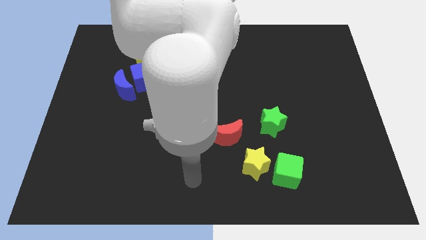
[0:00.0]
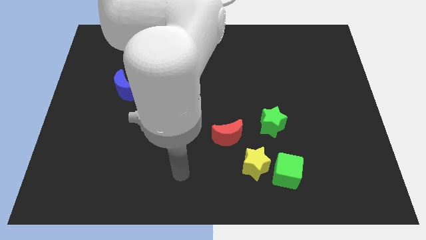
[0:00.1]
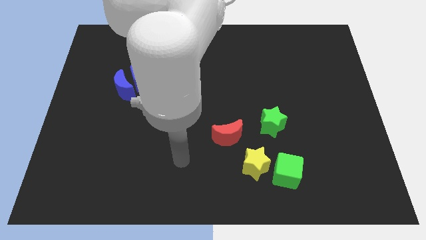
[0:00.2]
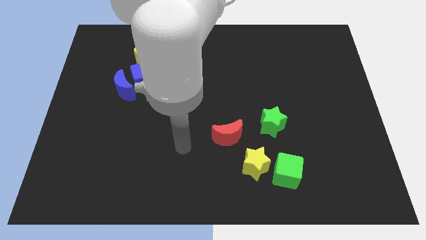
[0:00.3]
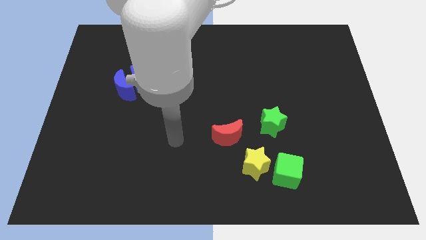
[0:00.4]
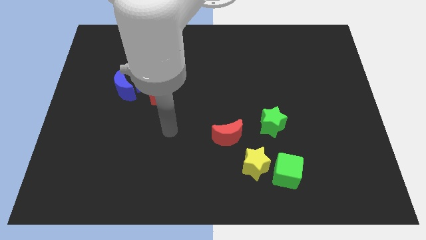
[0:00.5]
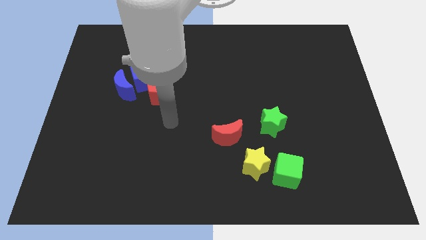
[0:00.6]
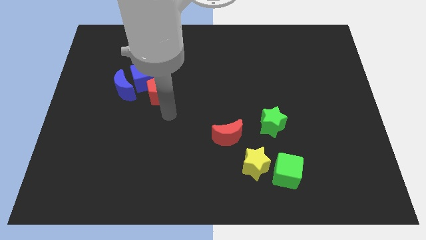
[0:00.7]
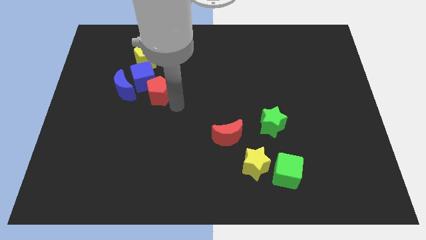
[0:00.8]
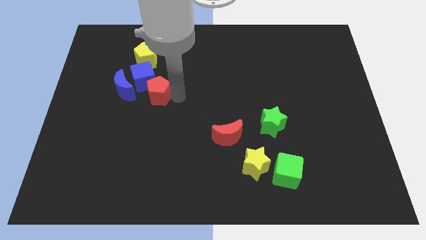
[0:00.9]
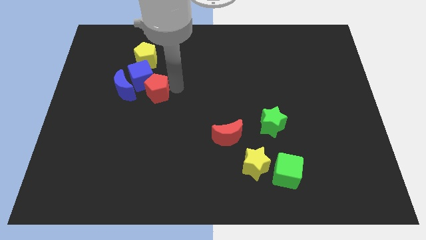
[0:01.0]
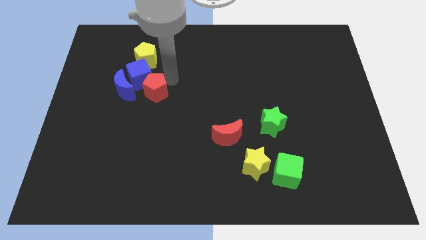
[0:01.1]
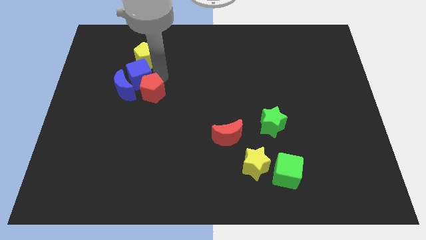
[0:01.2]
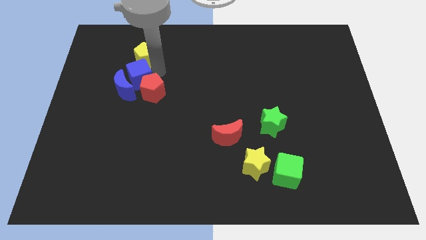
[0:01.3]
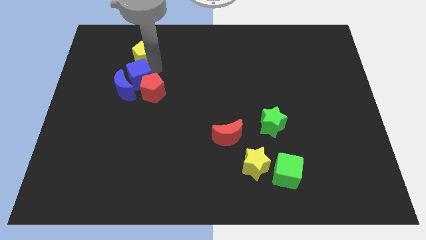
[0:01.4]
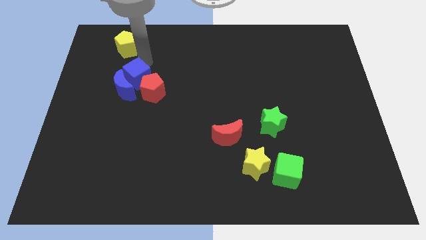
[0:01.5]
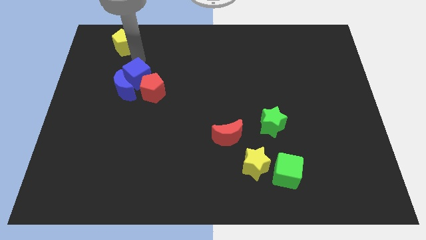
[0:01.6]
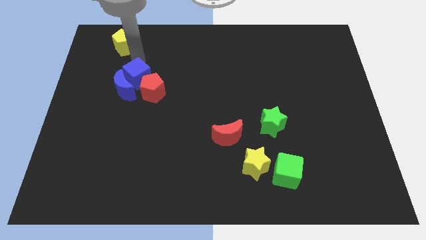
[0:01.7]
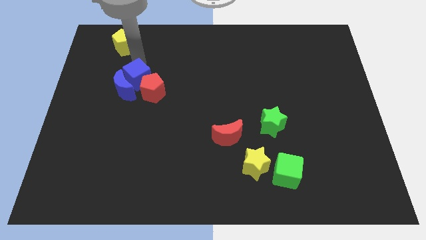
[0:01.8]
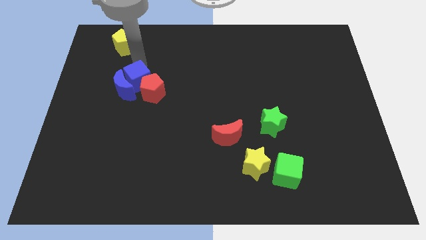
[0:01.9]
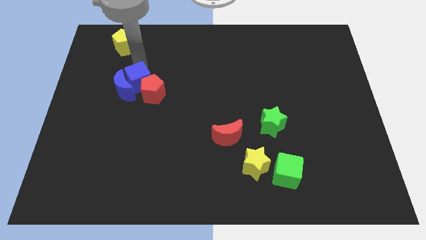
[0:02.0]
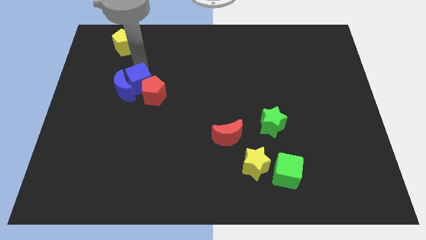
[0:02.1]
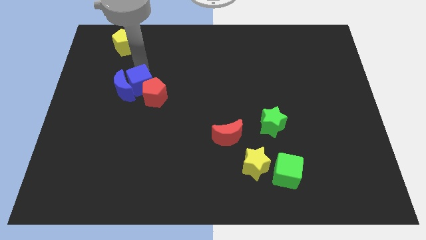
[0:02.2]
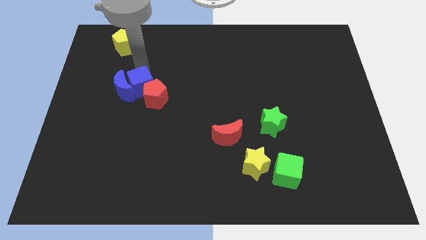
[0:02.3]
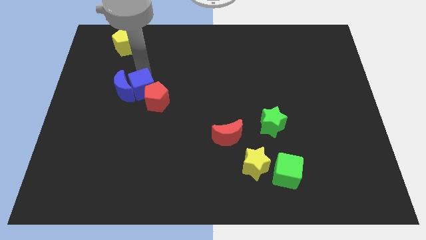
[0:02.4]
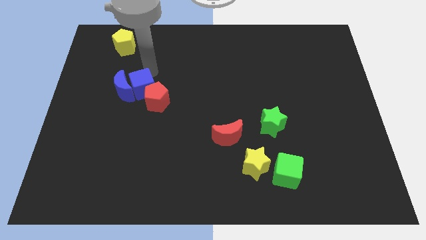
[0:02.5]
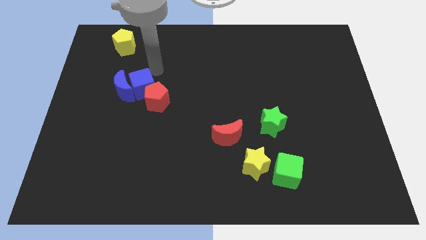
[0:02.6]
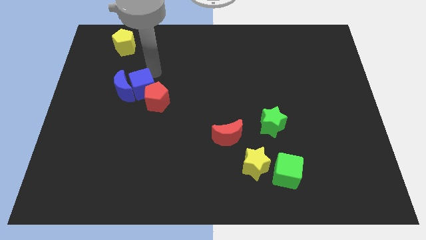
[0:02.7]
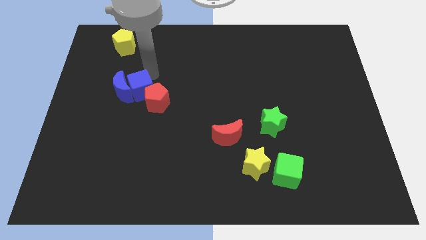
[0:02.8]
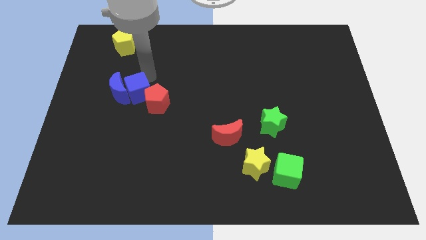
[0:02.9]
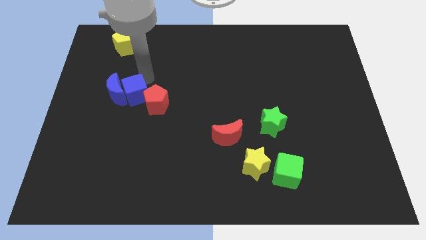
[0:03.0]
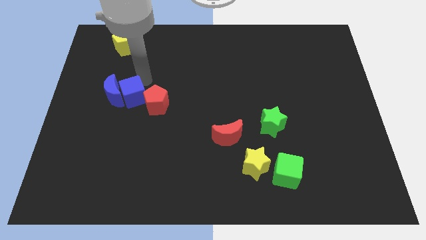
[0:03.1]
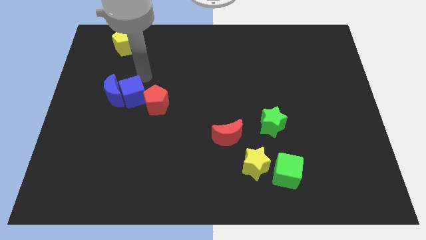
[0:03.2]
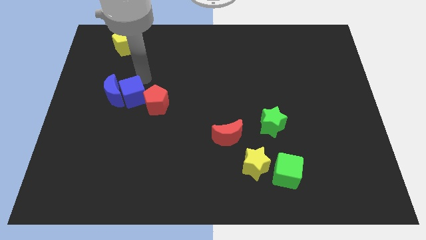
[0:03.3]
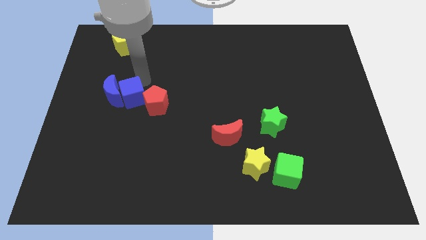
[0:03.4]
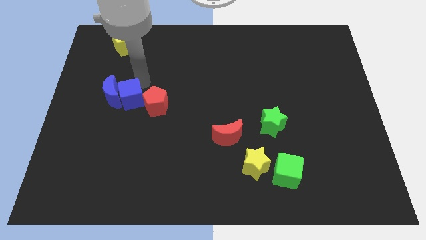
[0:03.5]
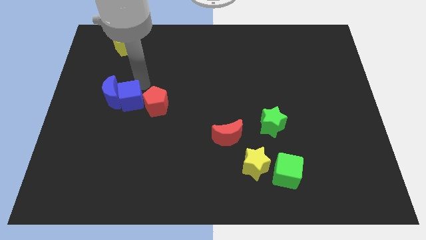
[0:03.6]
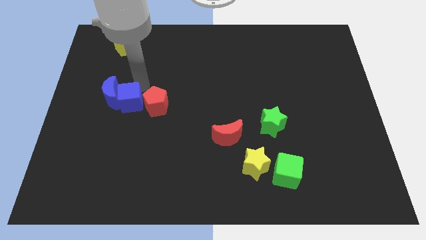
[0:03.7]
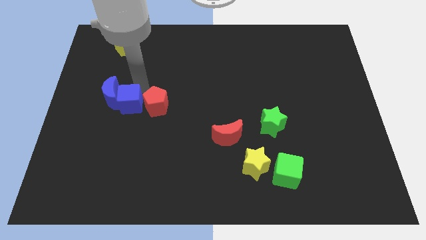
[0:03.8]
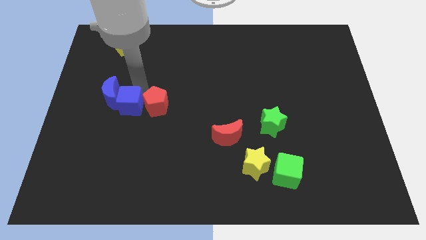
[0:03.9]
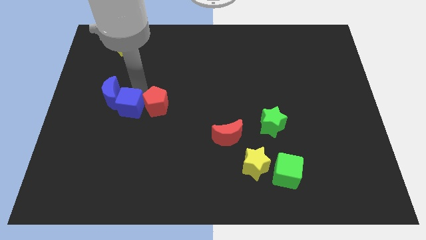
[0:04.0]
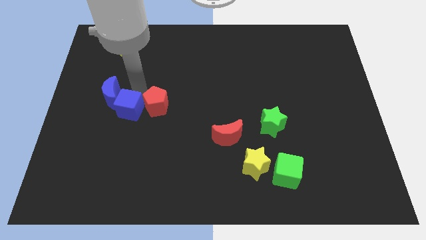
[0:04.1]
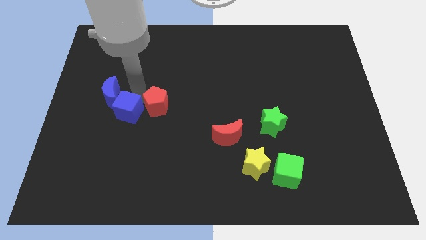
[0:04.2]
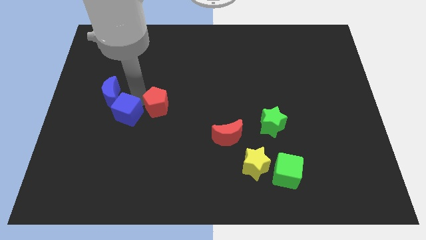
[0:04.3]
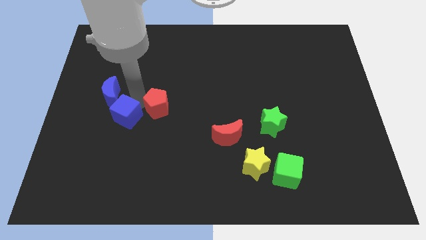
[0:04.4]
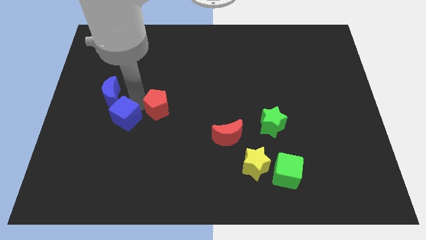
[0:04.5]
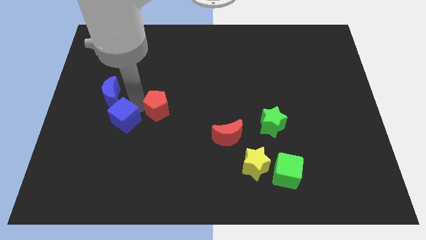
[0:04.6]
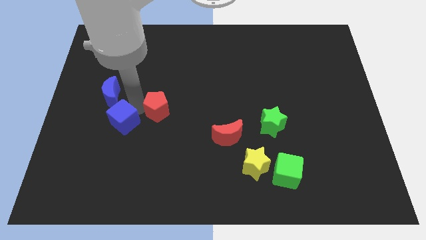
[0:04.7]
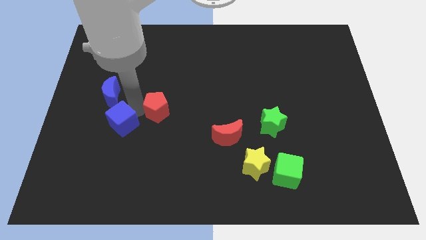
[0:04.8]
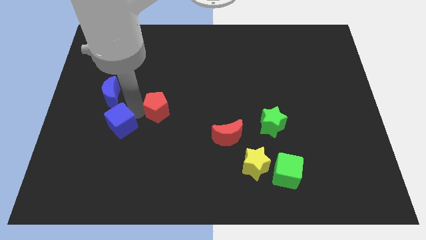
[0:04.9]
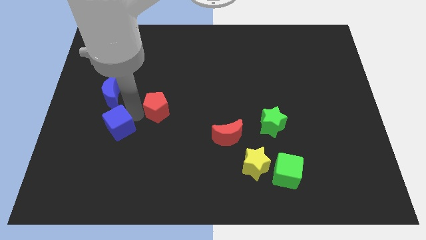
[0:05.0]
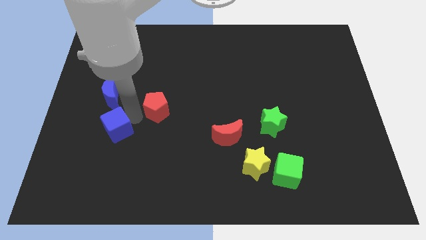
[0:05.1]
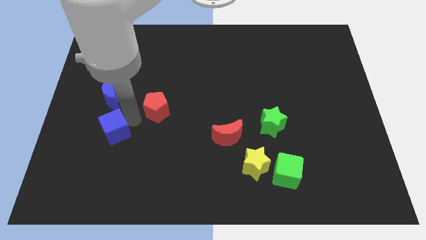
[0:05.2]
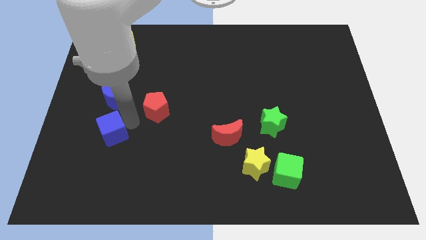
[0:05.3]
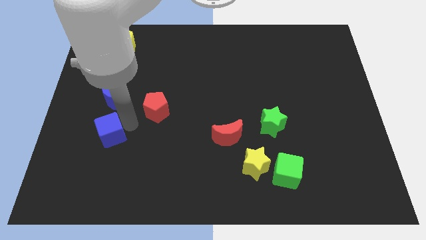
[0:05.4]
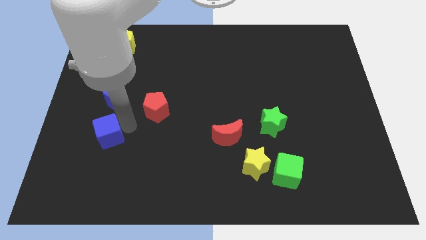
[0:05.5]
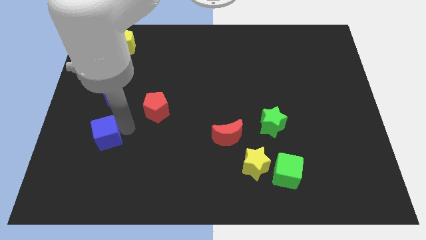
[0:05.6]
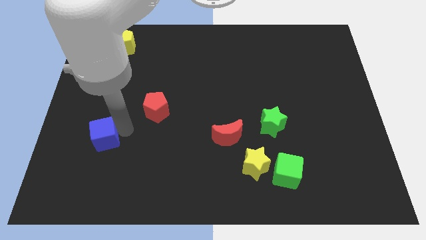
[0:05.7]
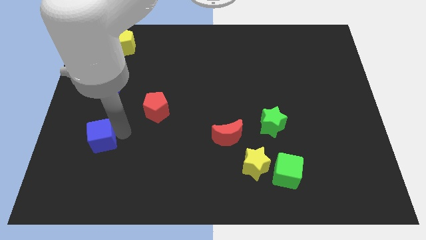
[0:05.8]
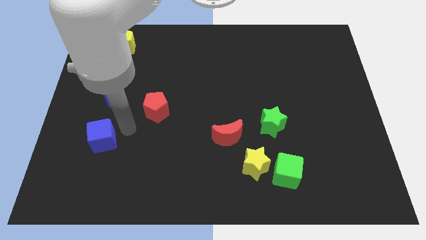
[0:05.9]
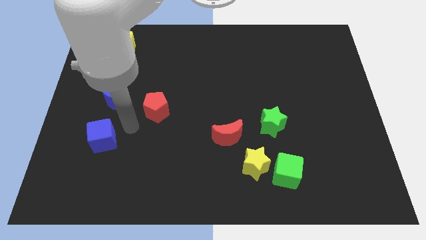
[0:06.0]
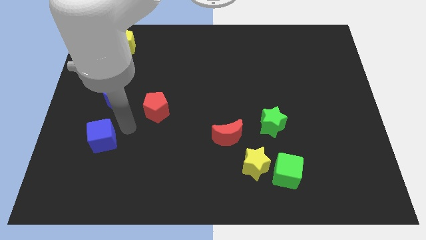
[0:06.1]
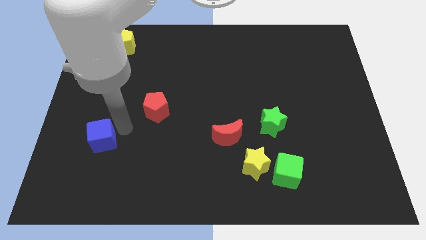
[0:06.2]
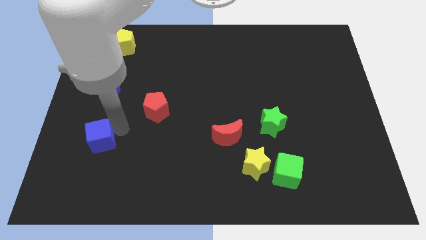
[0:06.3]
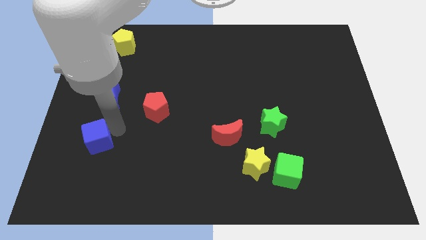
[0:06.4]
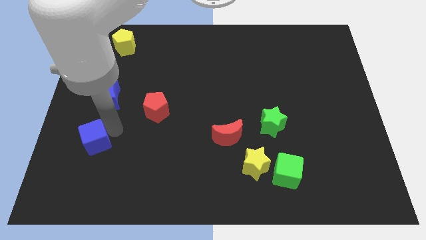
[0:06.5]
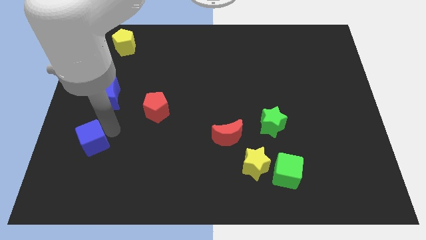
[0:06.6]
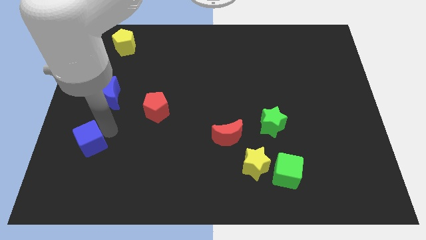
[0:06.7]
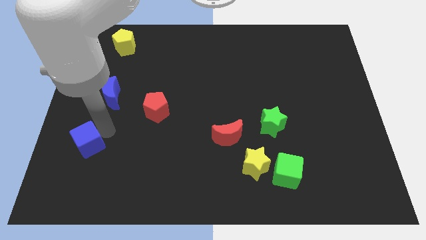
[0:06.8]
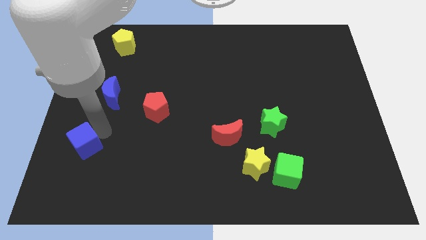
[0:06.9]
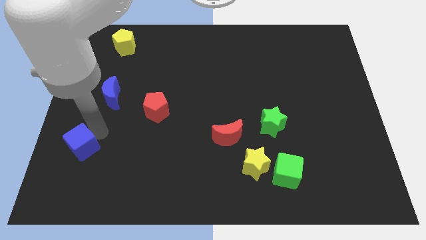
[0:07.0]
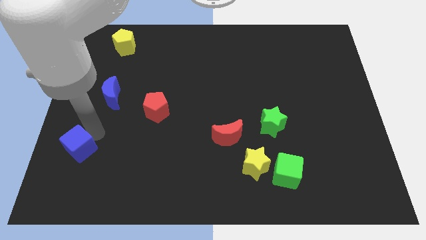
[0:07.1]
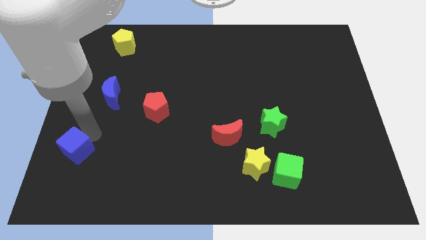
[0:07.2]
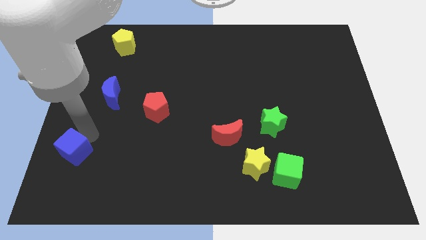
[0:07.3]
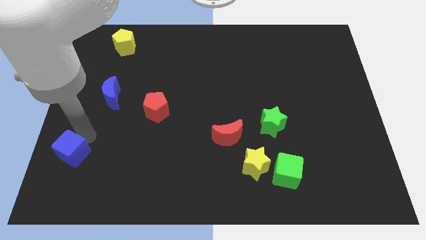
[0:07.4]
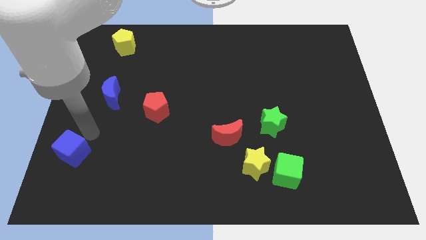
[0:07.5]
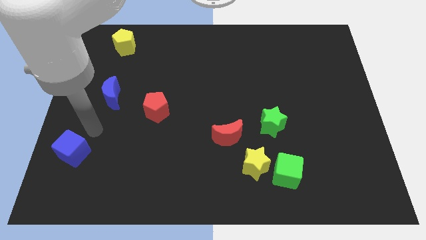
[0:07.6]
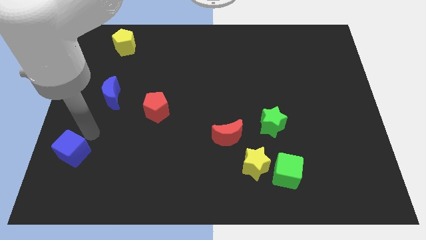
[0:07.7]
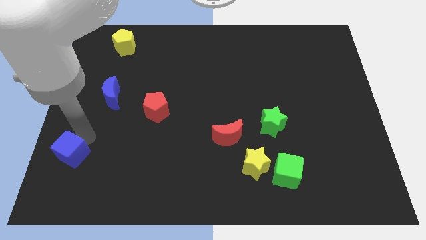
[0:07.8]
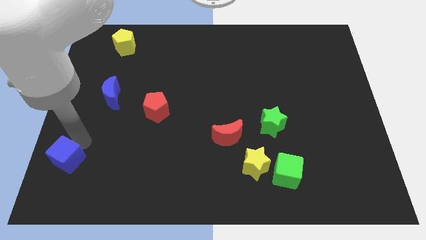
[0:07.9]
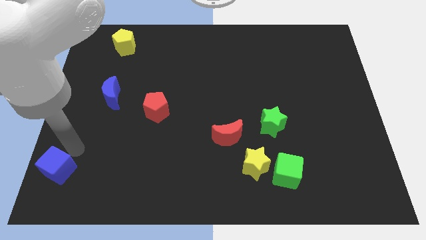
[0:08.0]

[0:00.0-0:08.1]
move the blue cube to the bottom left corner
